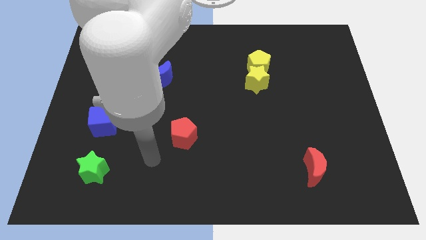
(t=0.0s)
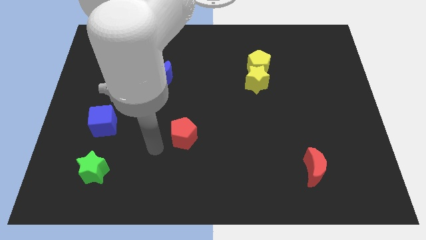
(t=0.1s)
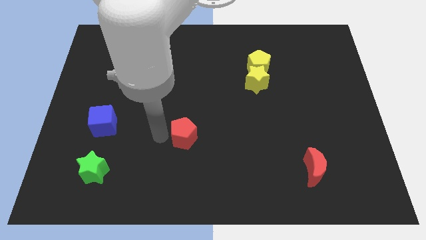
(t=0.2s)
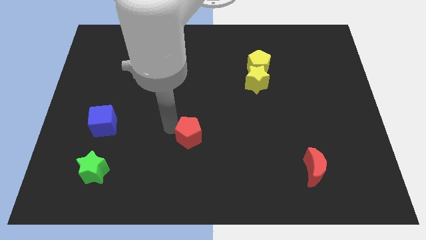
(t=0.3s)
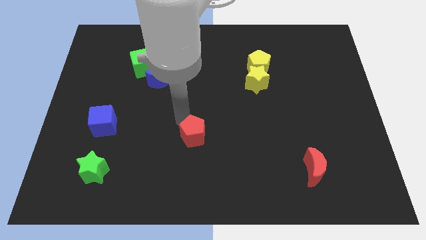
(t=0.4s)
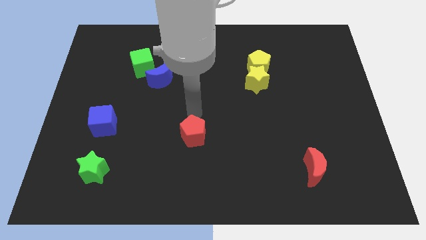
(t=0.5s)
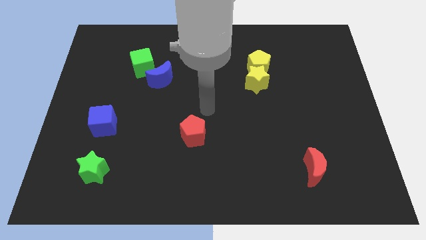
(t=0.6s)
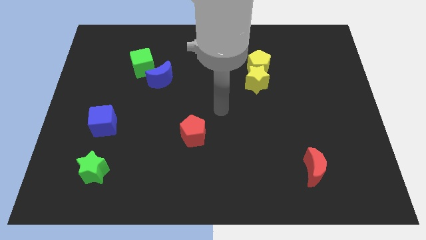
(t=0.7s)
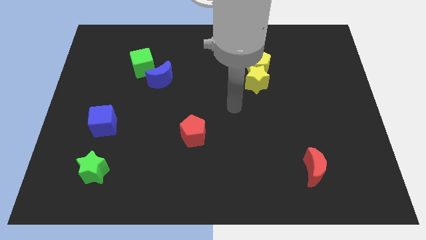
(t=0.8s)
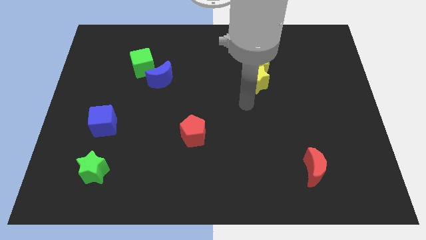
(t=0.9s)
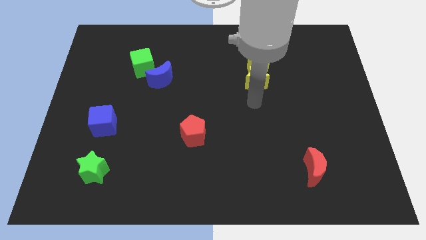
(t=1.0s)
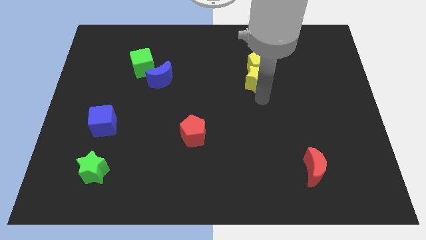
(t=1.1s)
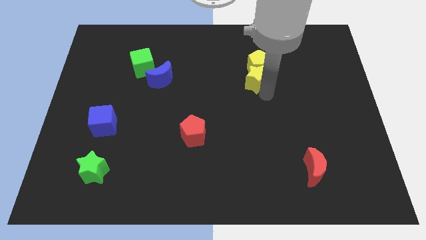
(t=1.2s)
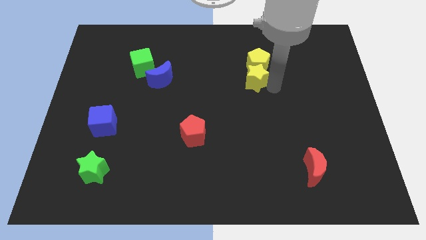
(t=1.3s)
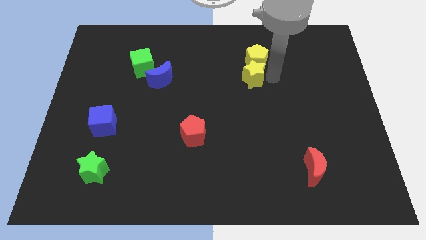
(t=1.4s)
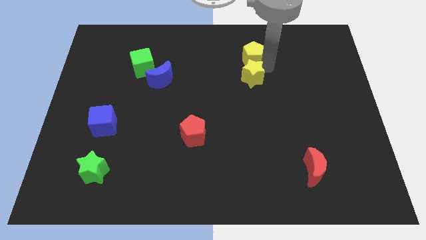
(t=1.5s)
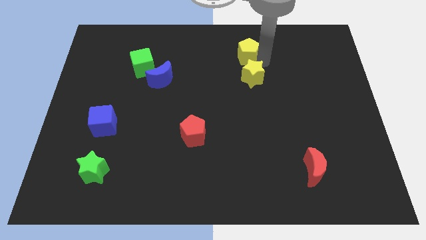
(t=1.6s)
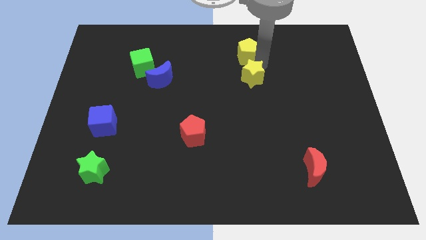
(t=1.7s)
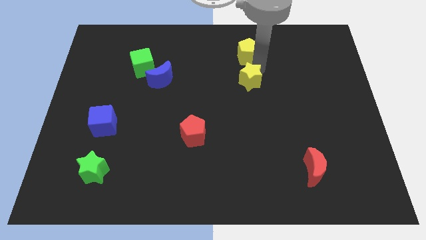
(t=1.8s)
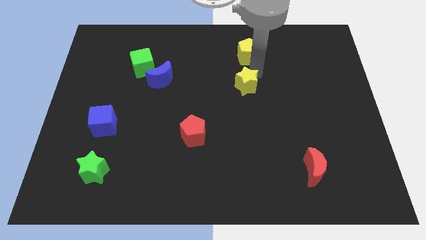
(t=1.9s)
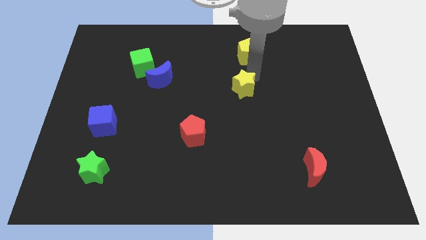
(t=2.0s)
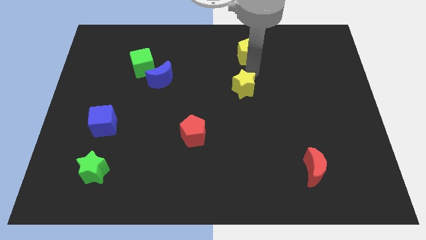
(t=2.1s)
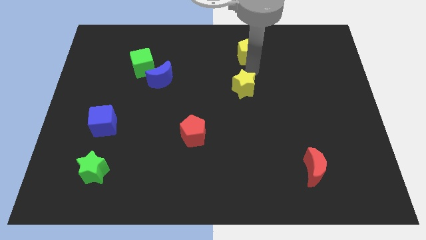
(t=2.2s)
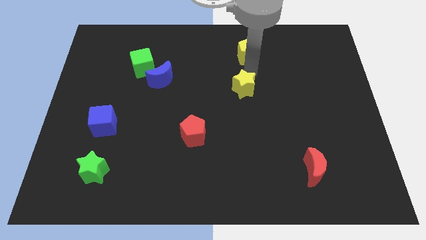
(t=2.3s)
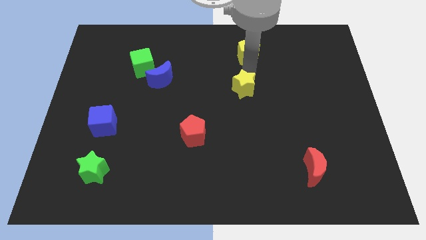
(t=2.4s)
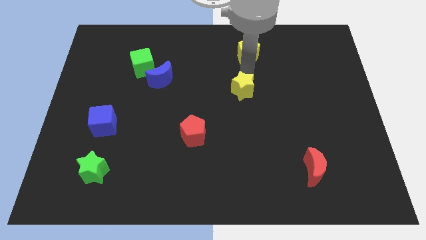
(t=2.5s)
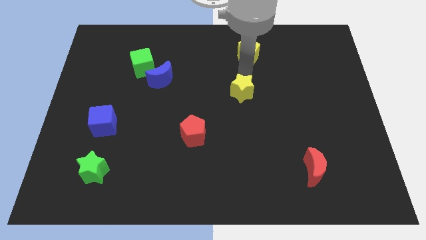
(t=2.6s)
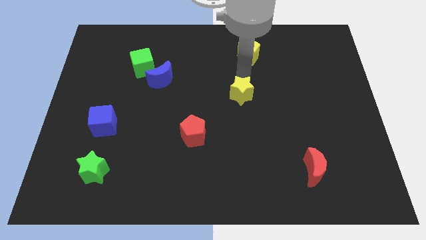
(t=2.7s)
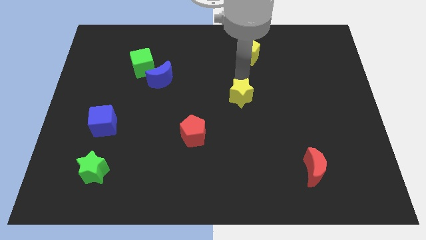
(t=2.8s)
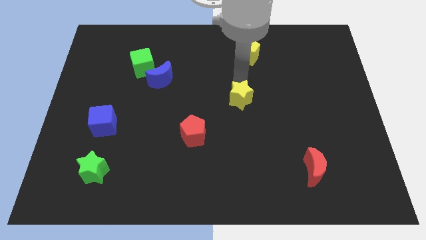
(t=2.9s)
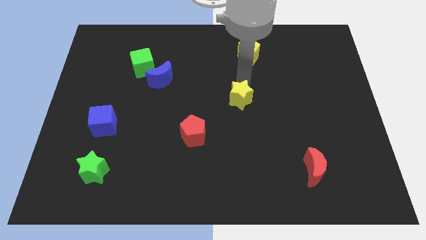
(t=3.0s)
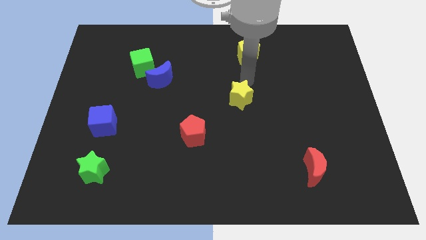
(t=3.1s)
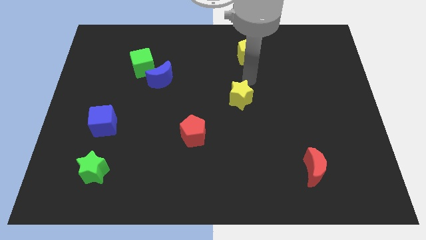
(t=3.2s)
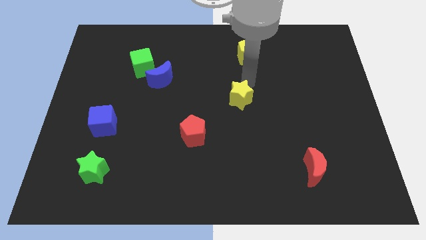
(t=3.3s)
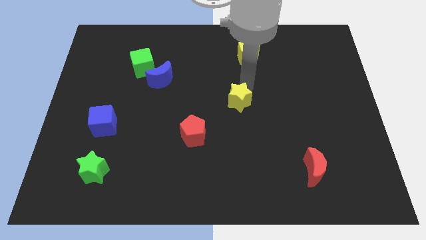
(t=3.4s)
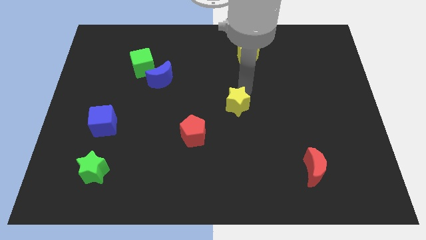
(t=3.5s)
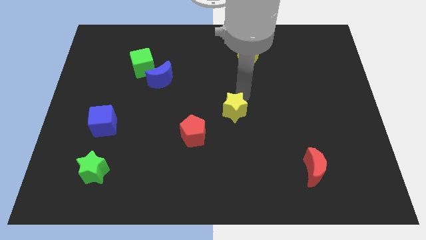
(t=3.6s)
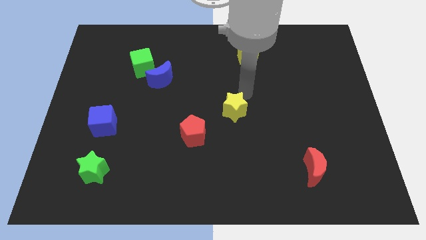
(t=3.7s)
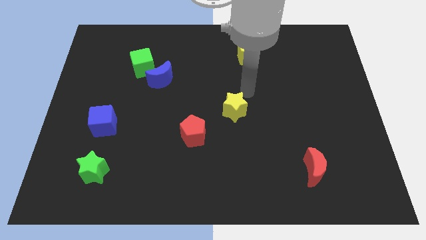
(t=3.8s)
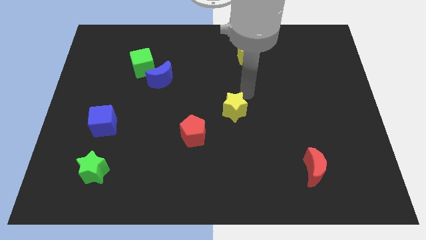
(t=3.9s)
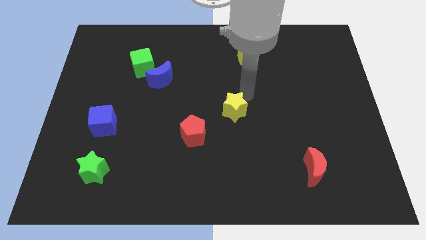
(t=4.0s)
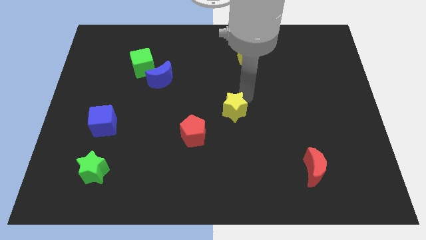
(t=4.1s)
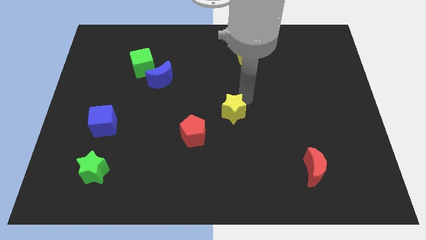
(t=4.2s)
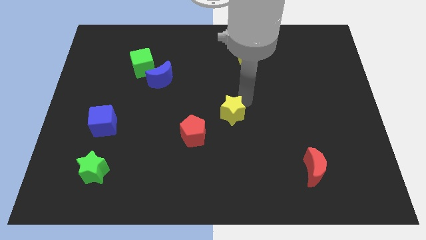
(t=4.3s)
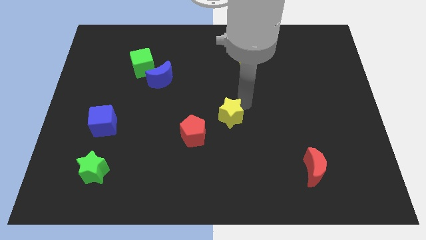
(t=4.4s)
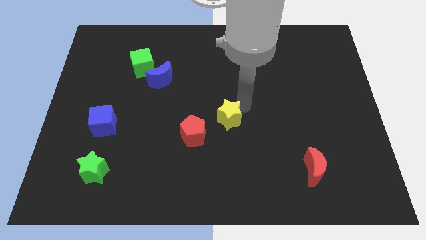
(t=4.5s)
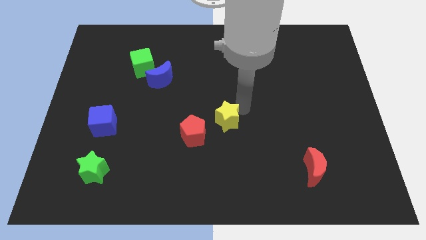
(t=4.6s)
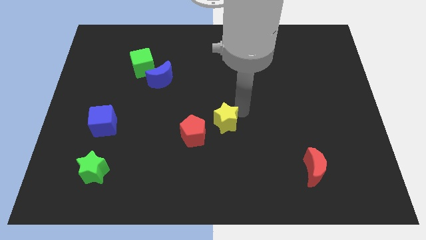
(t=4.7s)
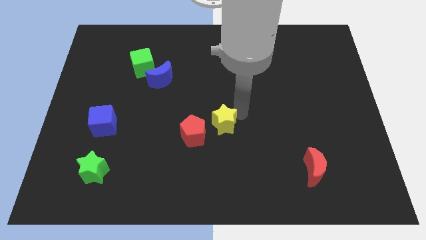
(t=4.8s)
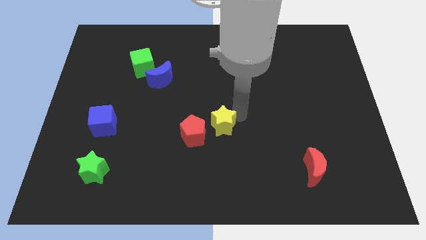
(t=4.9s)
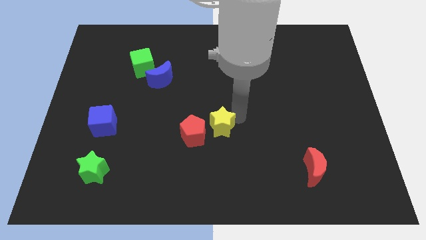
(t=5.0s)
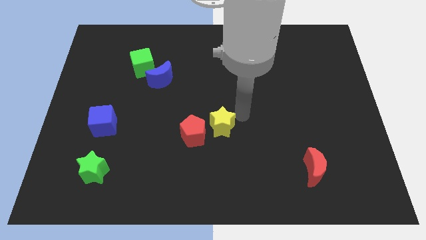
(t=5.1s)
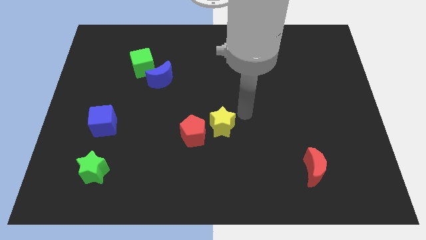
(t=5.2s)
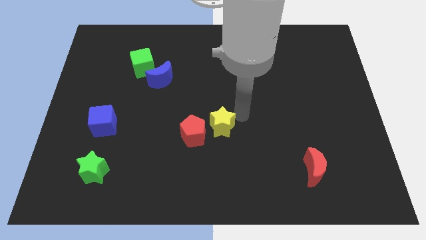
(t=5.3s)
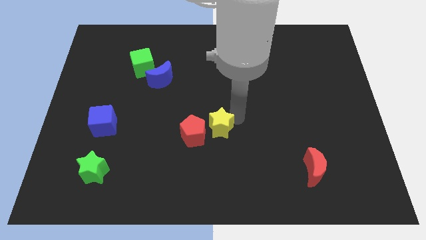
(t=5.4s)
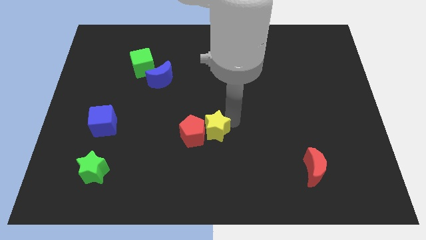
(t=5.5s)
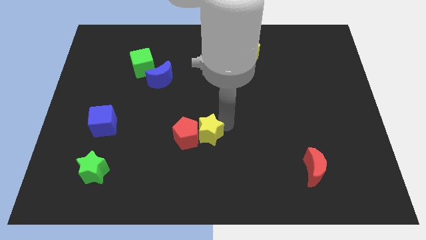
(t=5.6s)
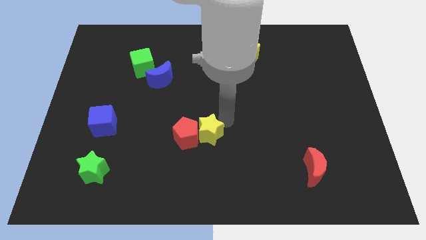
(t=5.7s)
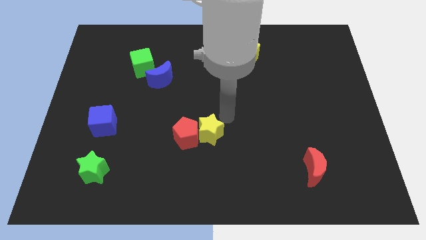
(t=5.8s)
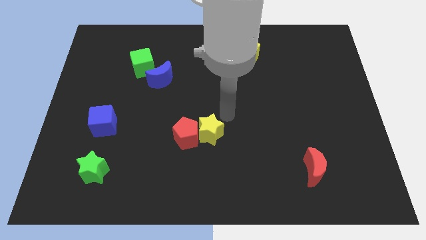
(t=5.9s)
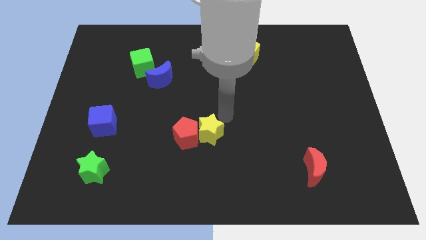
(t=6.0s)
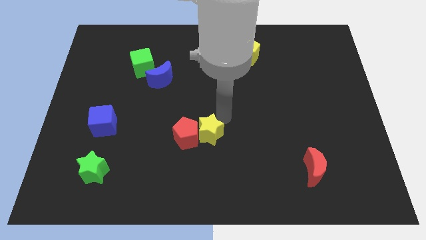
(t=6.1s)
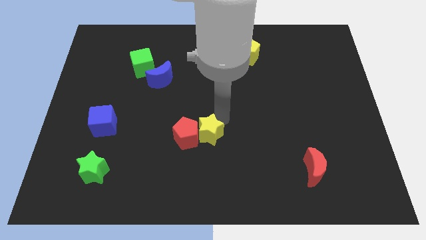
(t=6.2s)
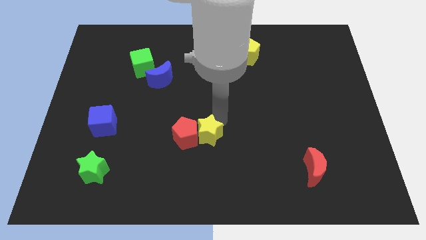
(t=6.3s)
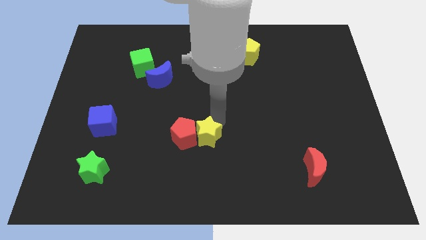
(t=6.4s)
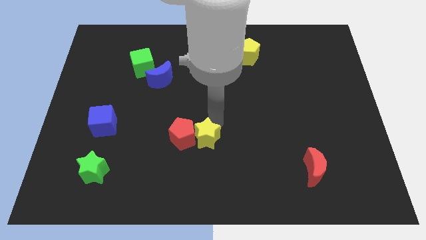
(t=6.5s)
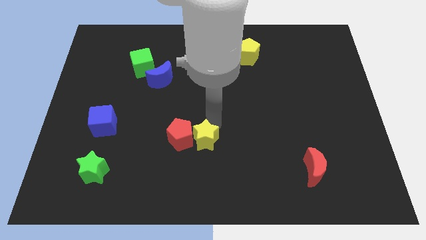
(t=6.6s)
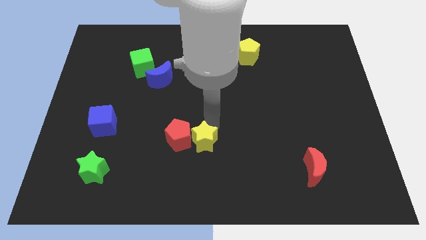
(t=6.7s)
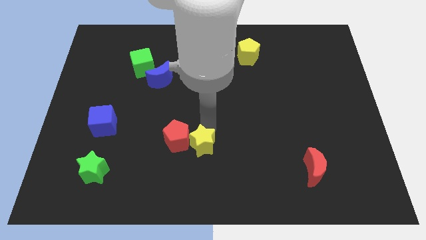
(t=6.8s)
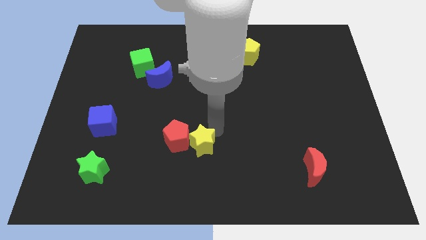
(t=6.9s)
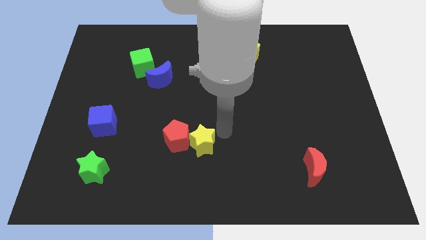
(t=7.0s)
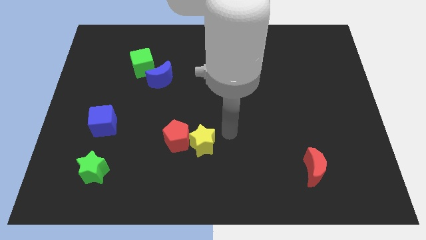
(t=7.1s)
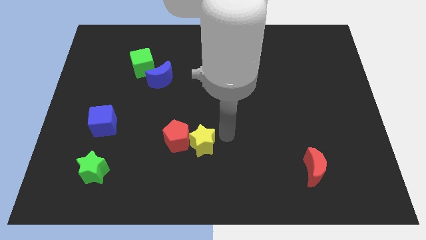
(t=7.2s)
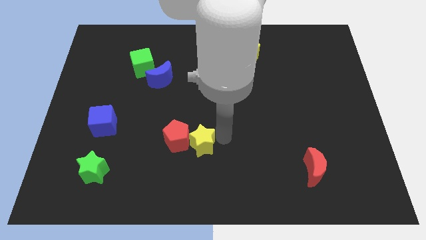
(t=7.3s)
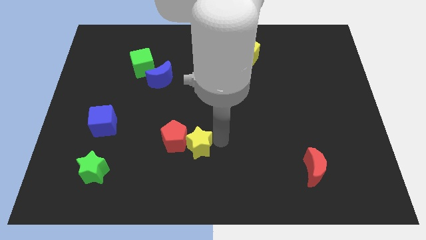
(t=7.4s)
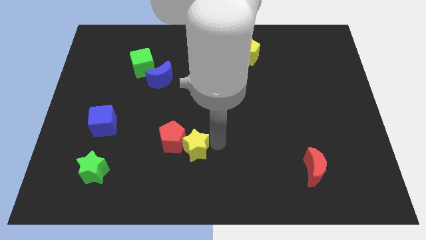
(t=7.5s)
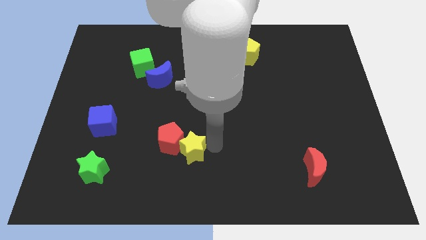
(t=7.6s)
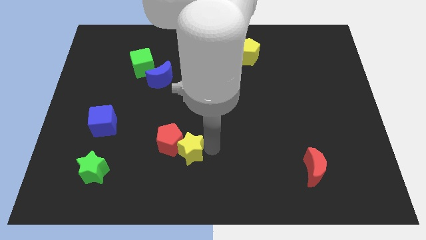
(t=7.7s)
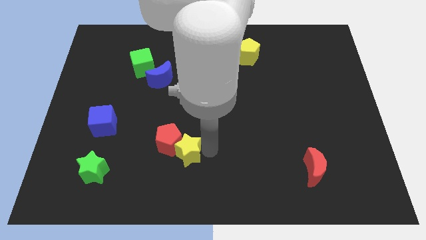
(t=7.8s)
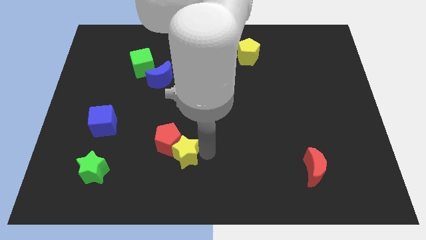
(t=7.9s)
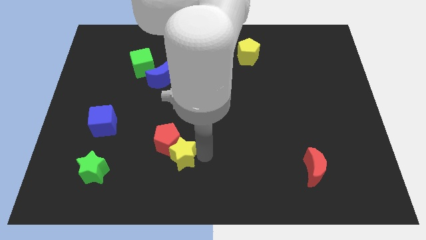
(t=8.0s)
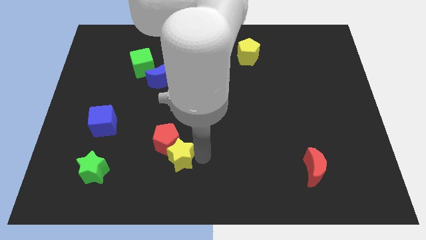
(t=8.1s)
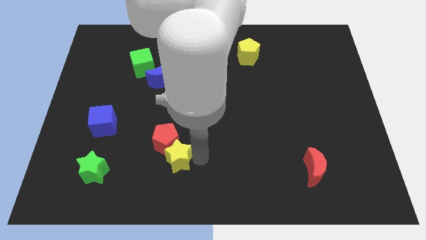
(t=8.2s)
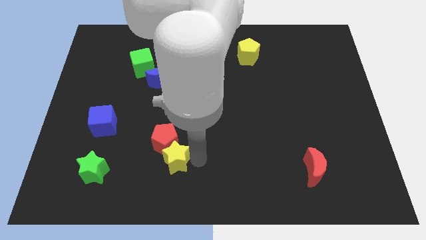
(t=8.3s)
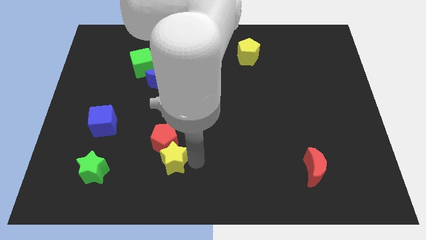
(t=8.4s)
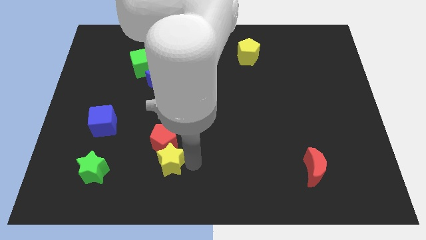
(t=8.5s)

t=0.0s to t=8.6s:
move the yellow star to the right of the green star
